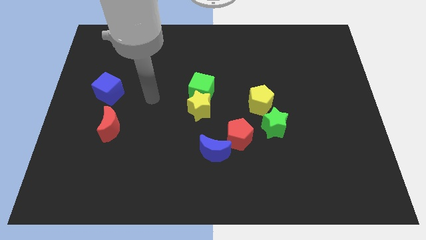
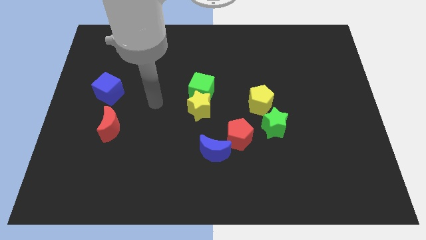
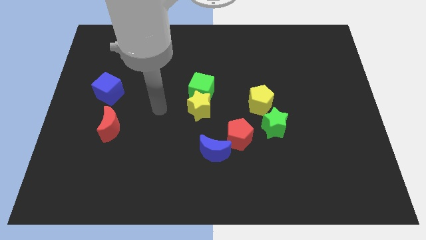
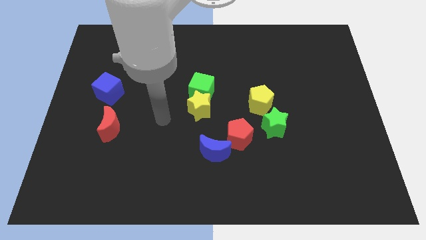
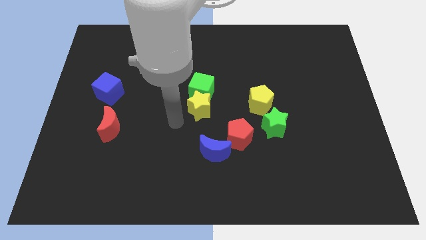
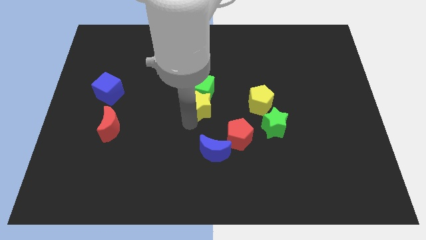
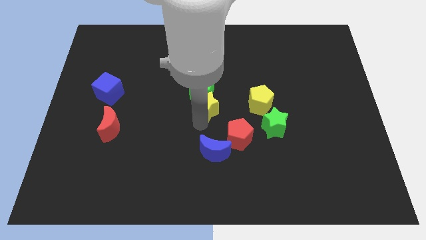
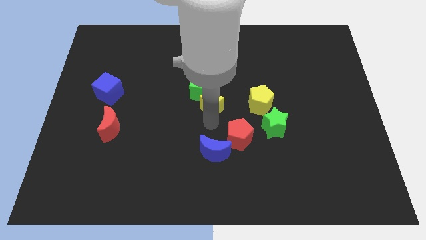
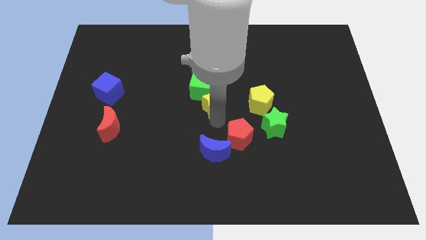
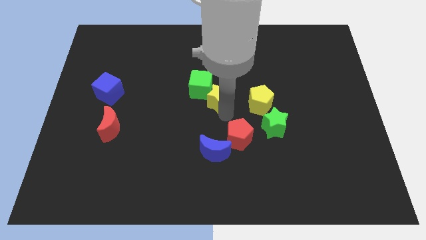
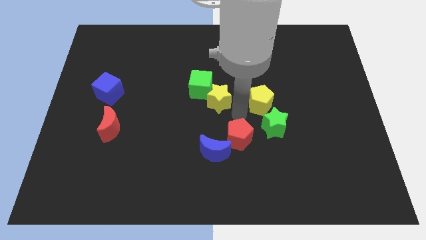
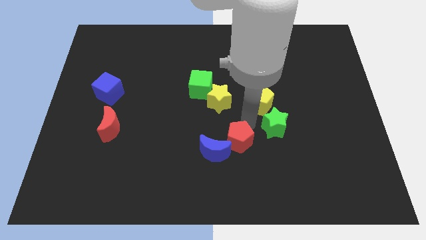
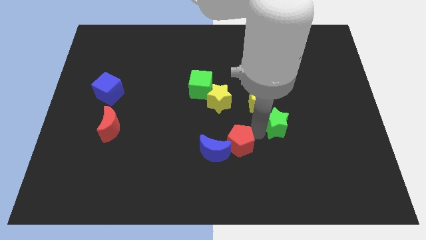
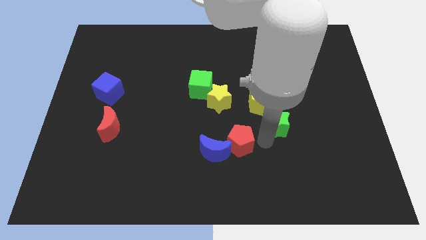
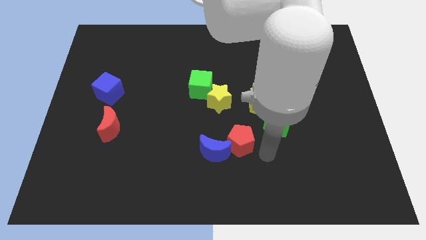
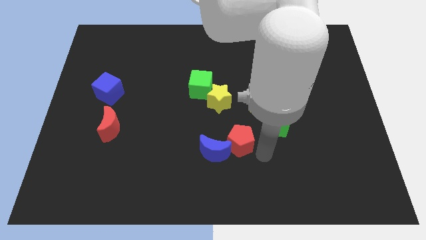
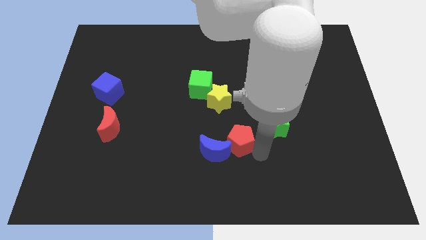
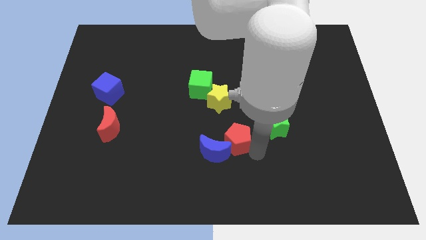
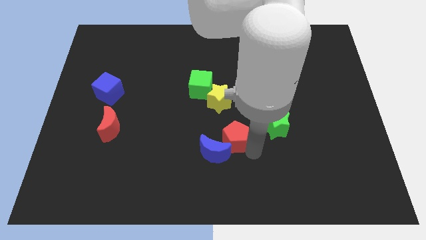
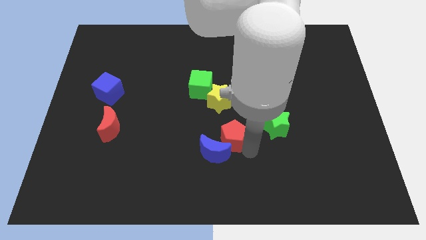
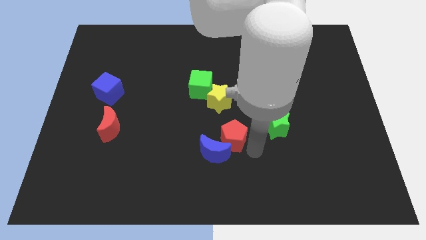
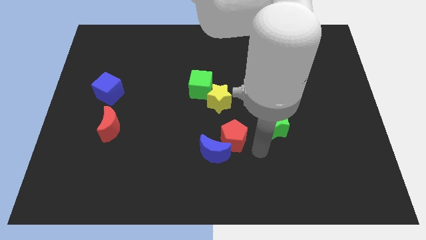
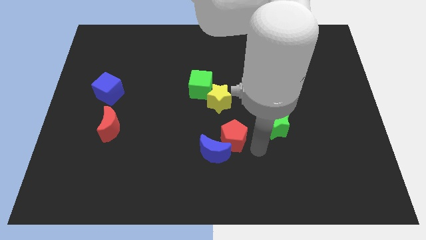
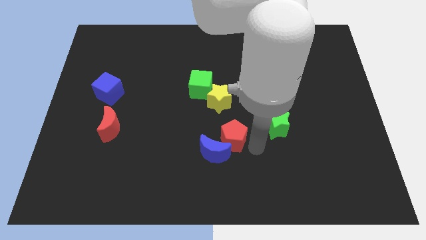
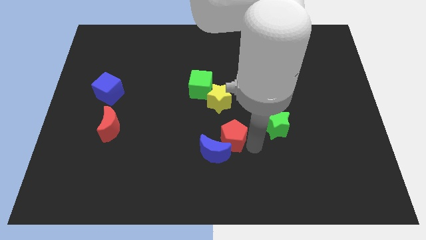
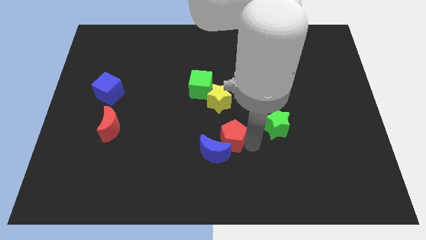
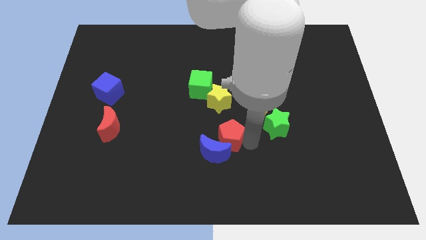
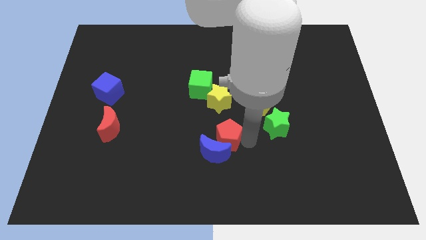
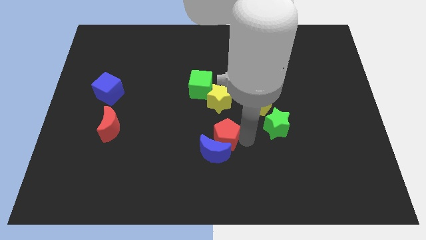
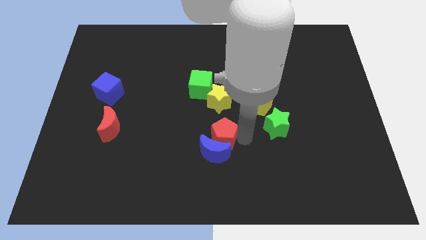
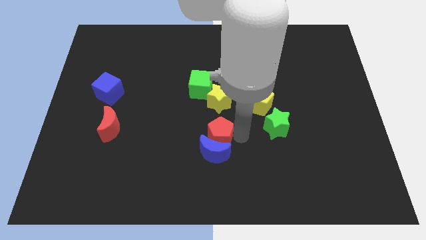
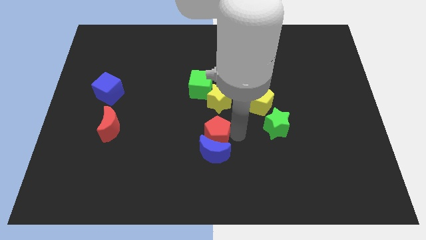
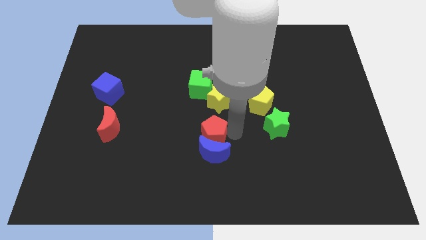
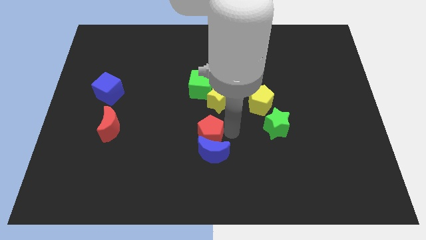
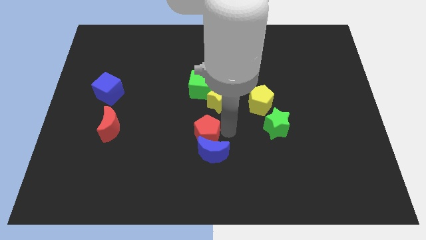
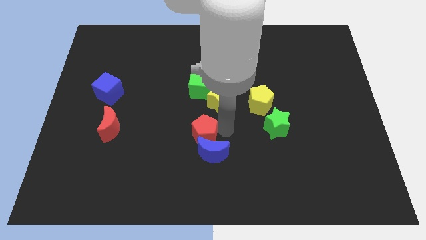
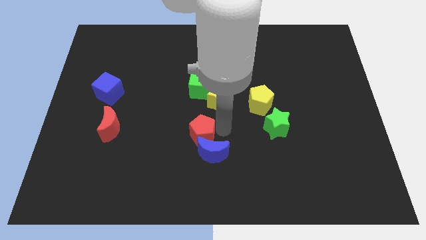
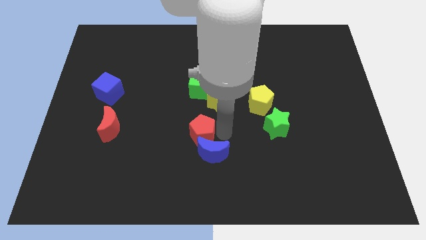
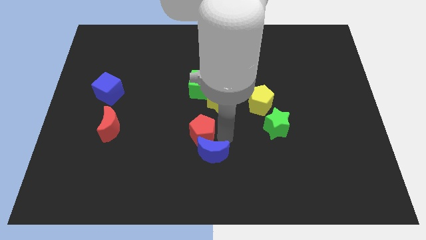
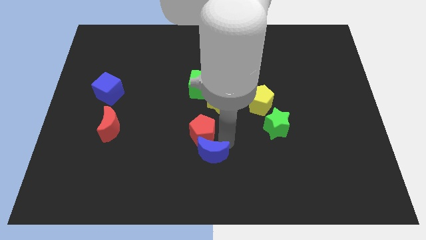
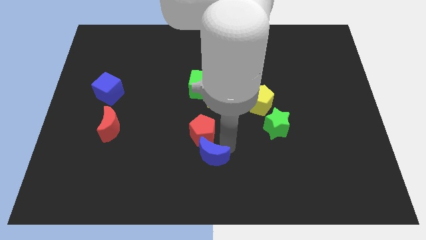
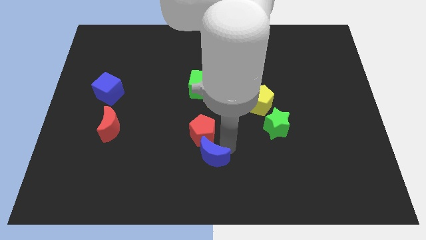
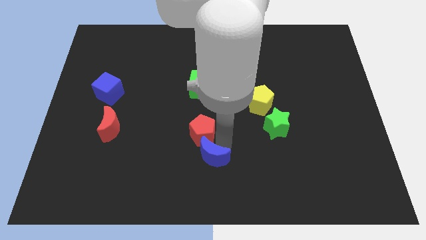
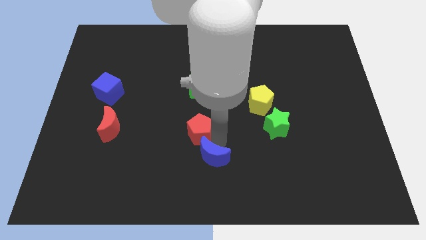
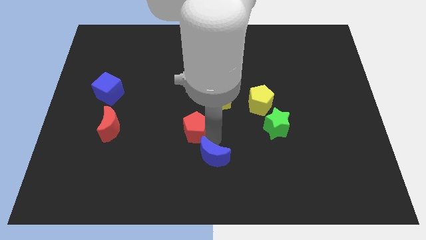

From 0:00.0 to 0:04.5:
slightly slide the red pentagon upwards and then left

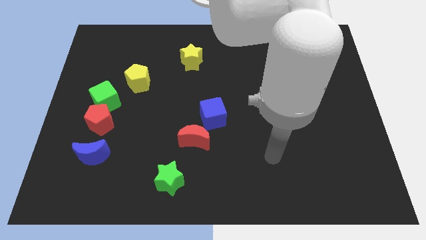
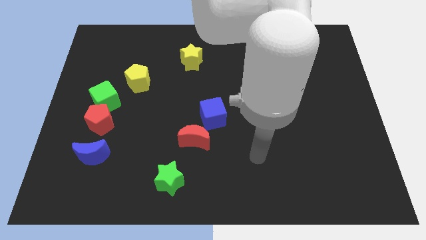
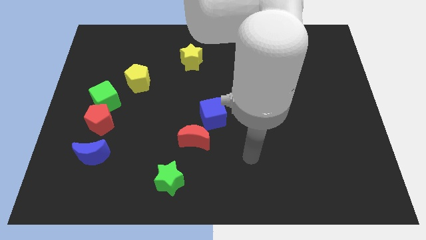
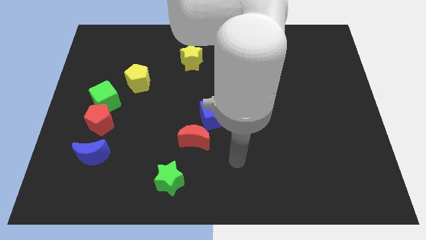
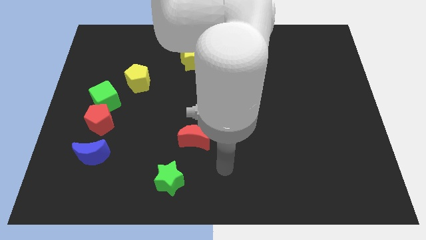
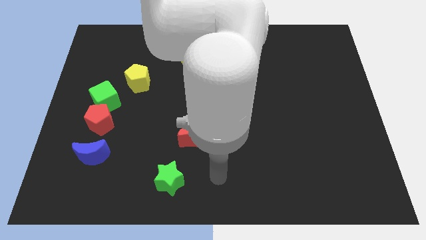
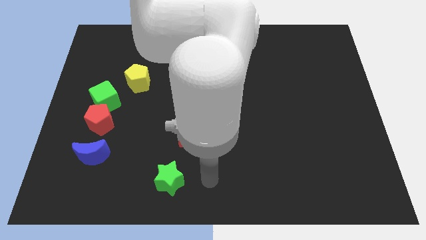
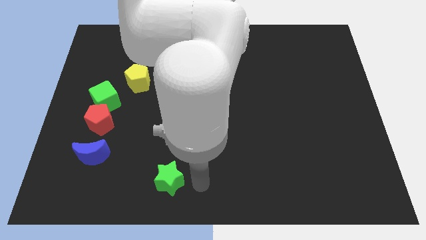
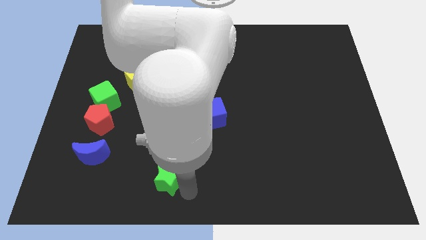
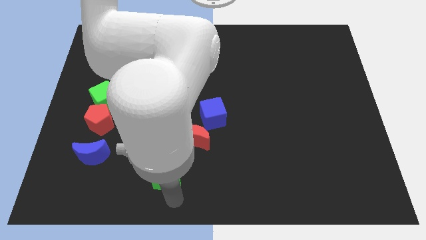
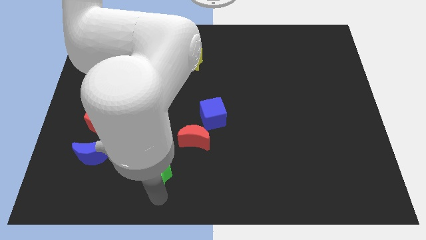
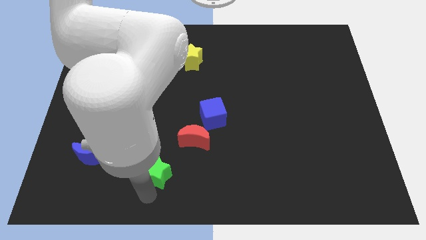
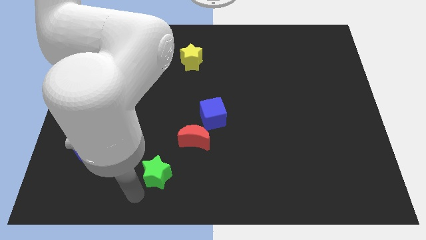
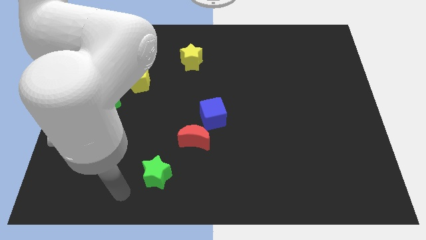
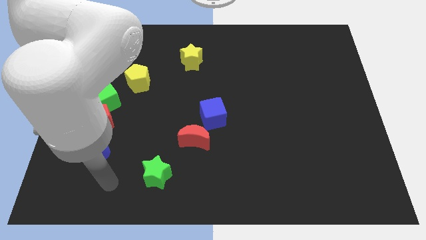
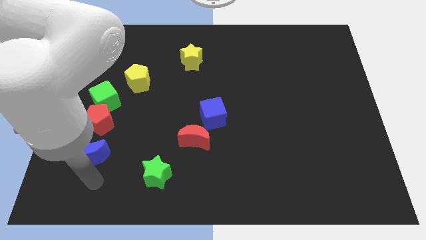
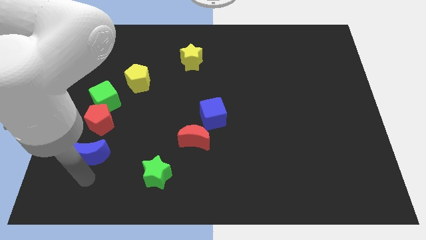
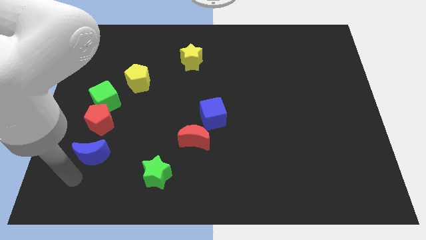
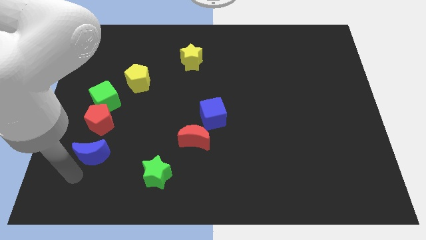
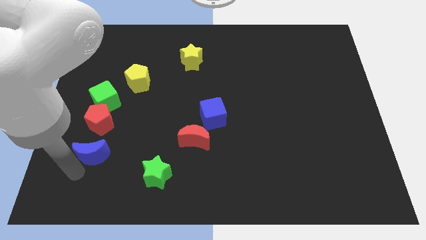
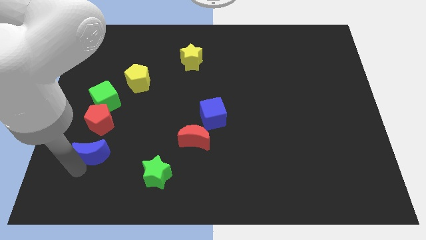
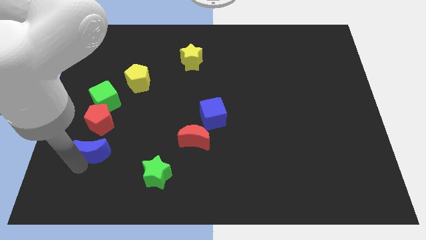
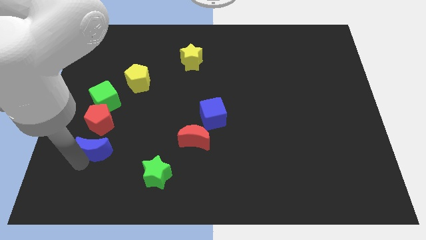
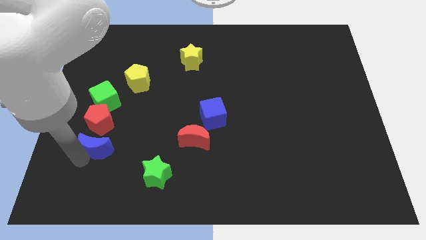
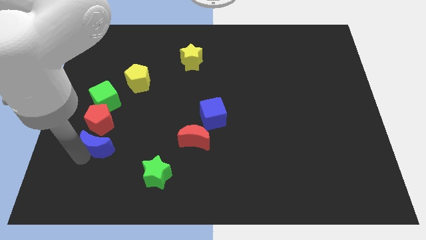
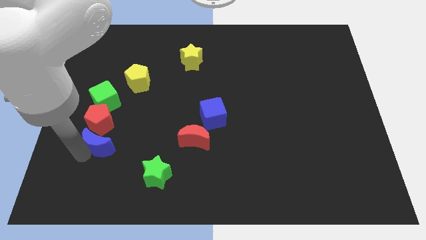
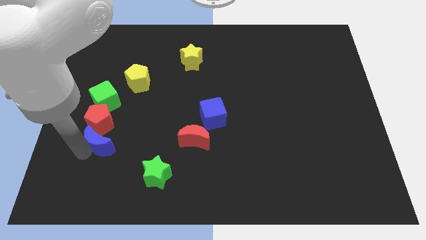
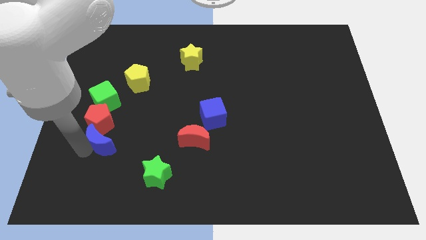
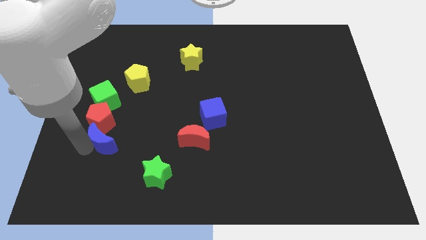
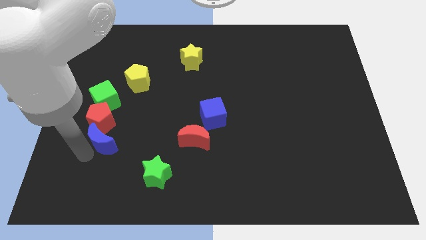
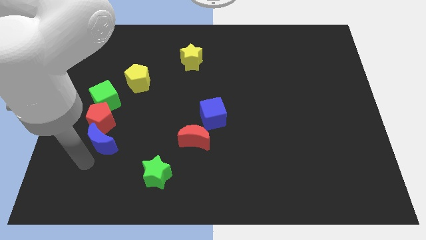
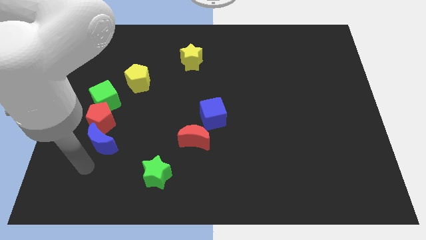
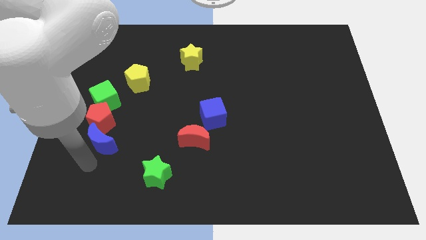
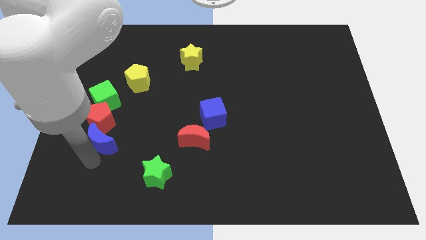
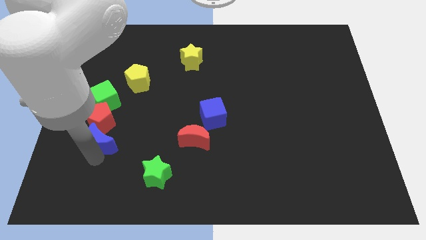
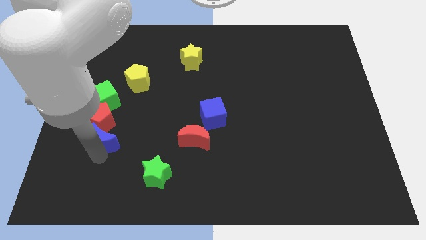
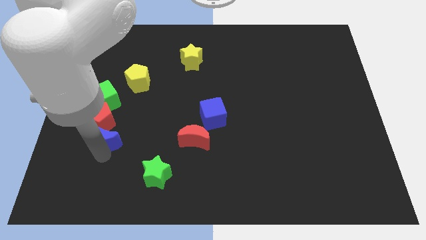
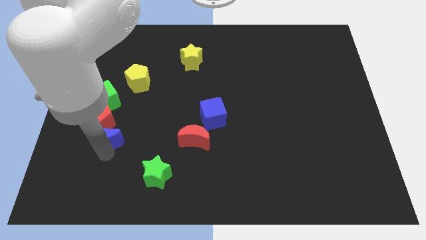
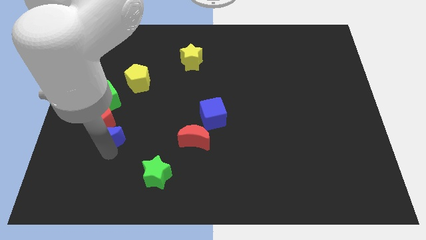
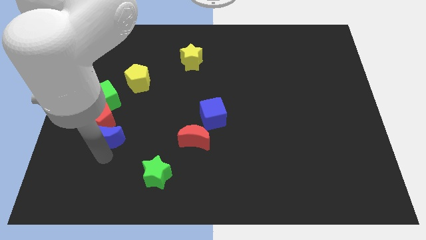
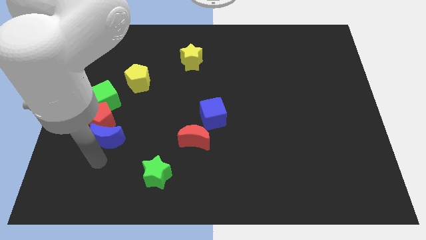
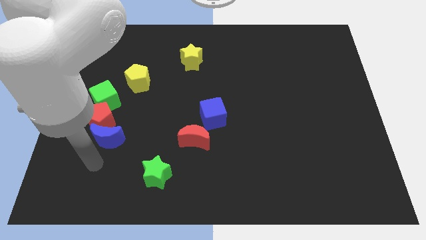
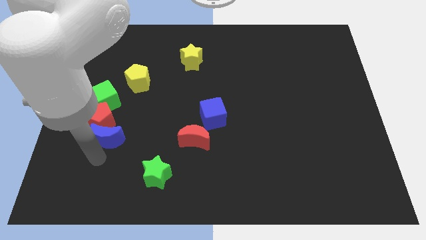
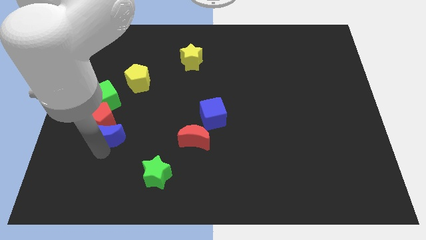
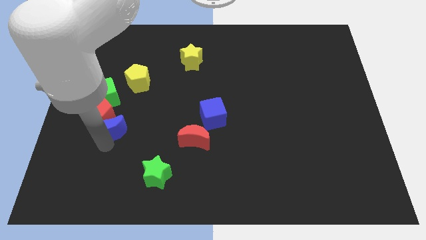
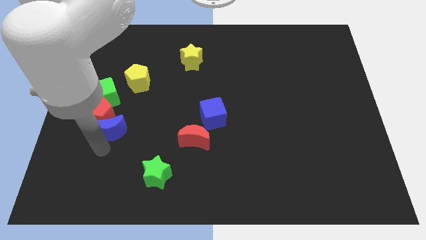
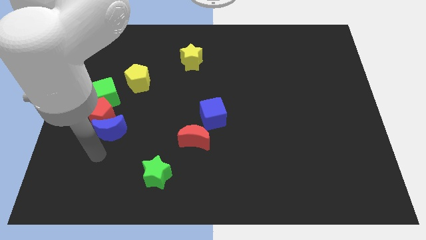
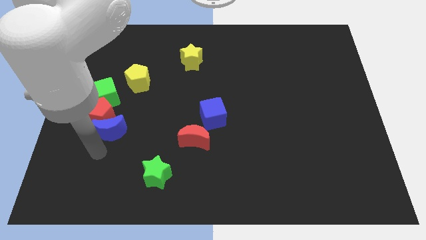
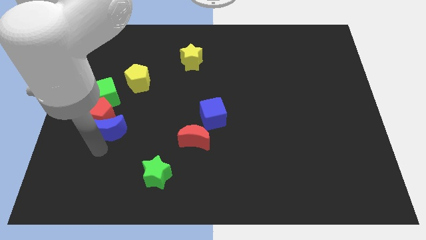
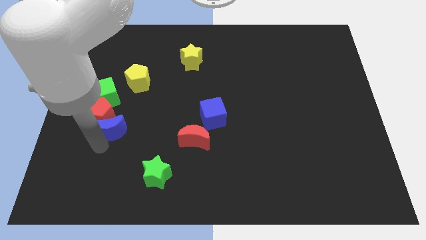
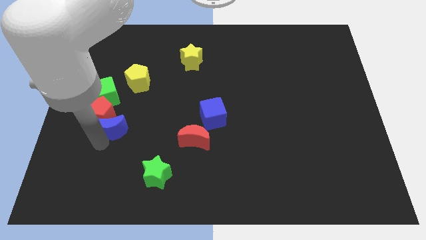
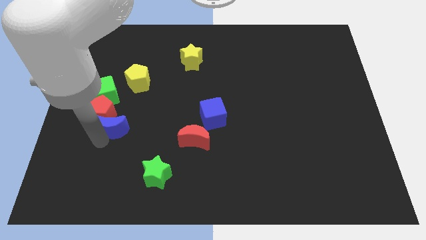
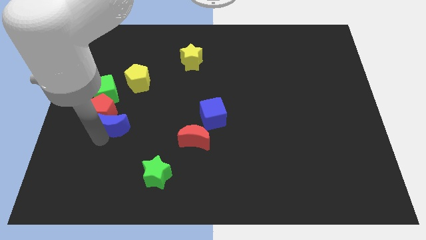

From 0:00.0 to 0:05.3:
slightly slide the blue moon upwards
